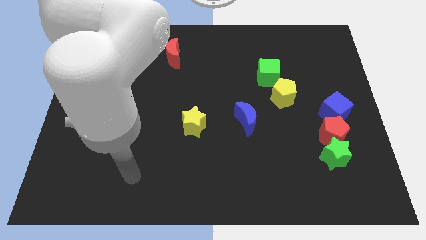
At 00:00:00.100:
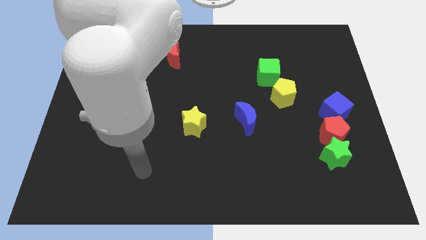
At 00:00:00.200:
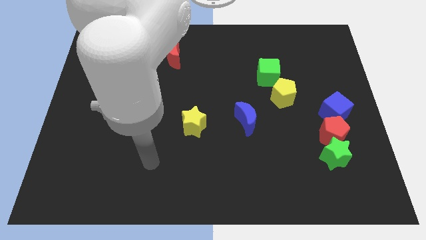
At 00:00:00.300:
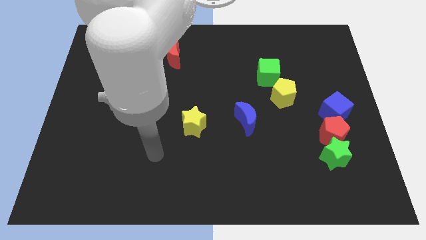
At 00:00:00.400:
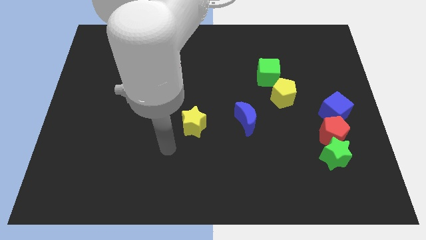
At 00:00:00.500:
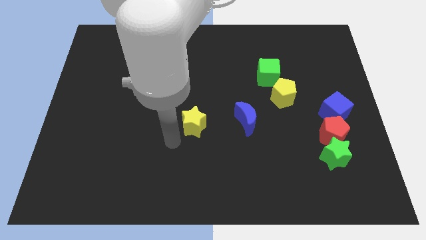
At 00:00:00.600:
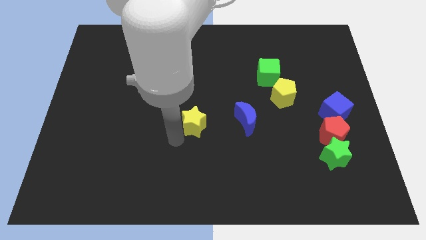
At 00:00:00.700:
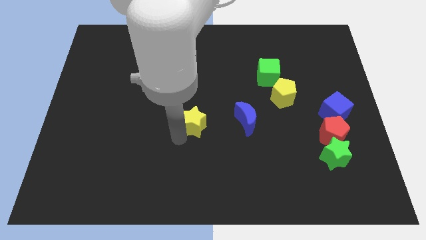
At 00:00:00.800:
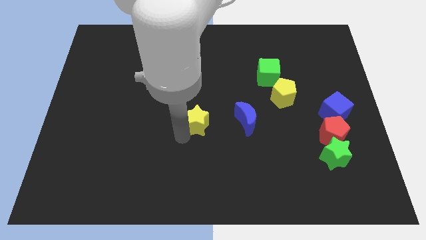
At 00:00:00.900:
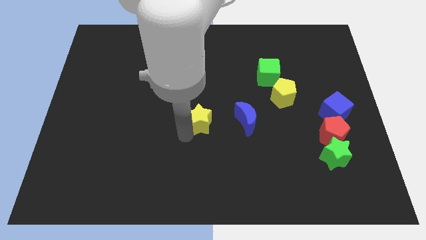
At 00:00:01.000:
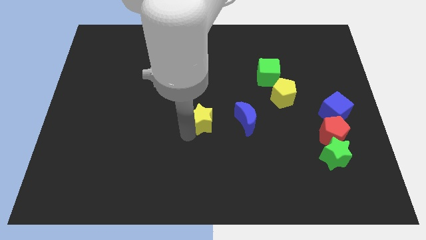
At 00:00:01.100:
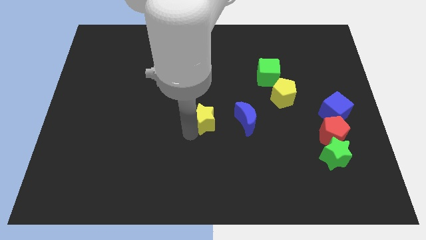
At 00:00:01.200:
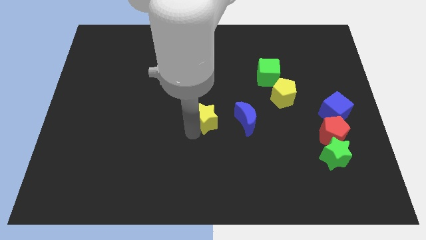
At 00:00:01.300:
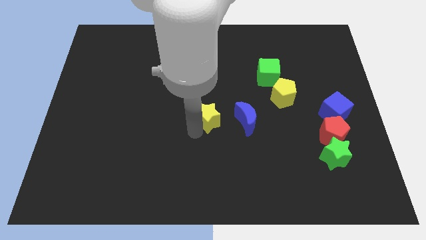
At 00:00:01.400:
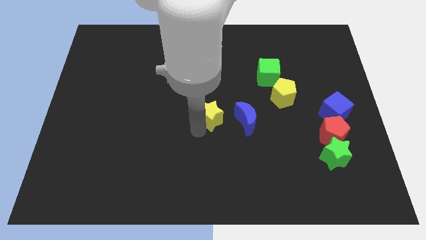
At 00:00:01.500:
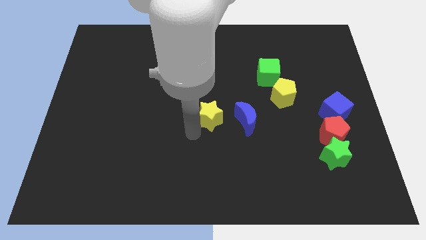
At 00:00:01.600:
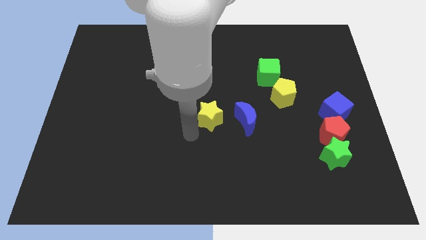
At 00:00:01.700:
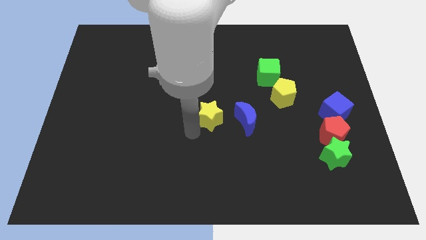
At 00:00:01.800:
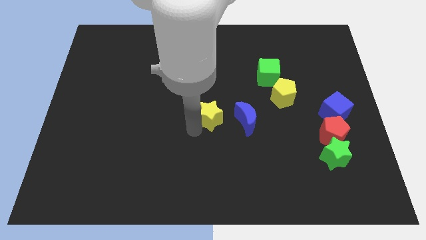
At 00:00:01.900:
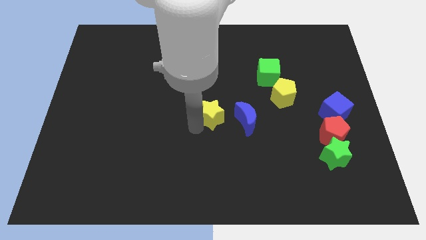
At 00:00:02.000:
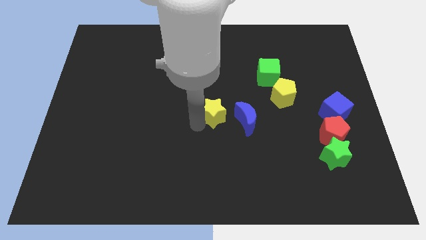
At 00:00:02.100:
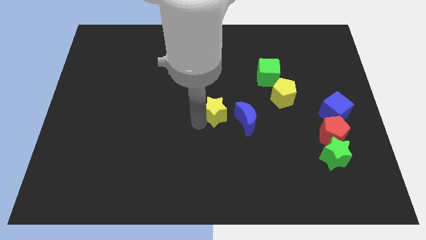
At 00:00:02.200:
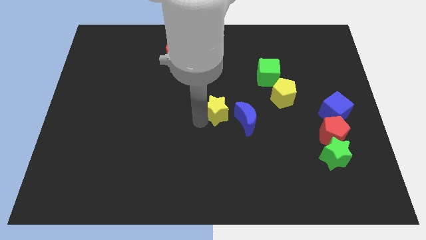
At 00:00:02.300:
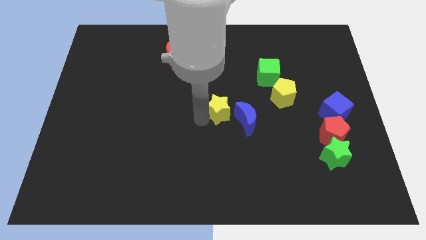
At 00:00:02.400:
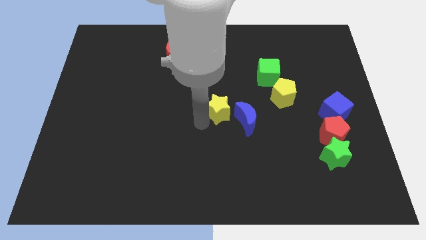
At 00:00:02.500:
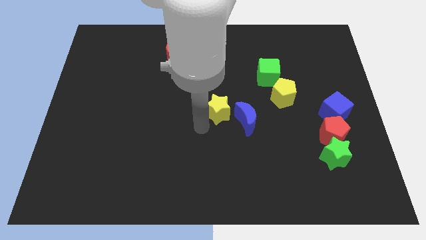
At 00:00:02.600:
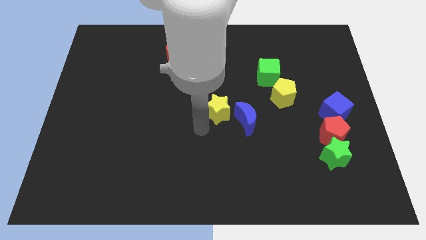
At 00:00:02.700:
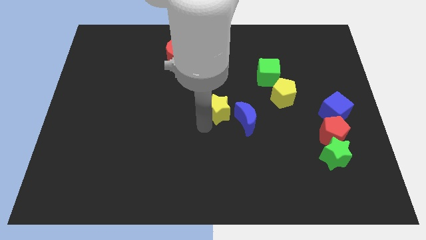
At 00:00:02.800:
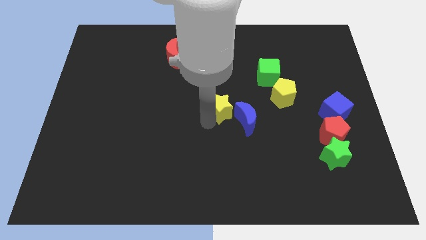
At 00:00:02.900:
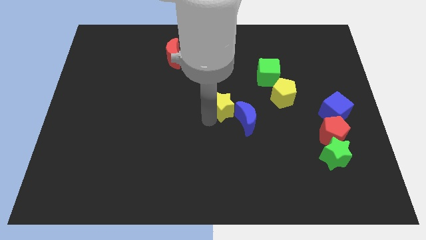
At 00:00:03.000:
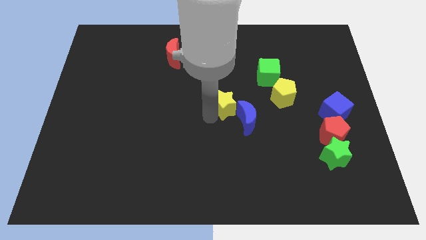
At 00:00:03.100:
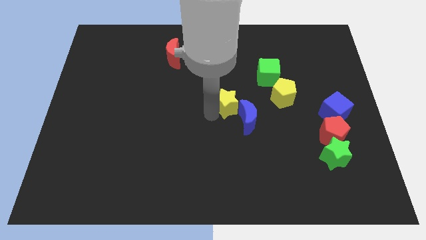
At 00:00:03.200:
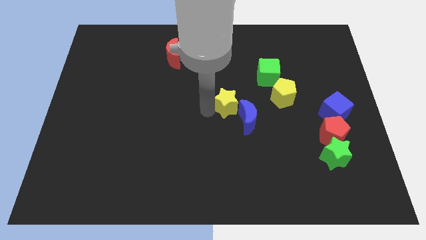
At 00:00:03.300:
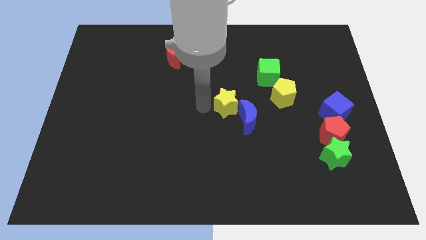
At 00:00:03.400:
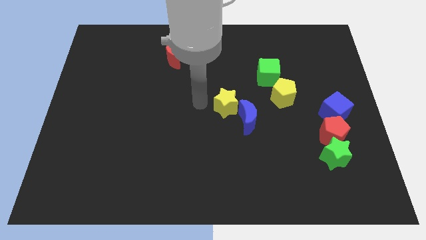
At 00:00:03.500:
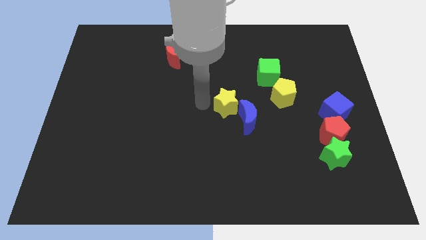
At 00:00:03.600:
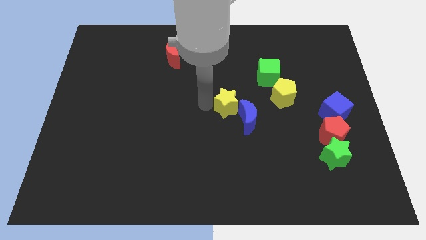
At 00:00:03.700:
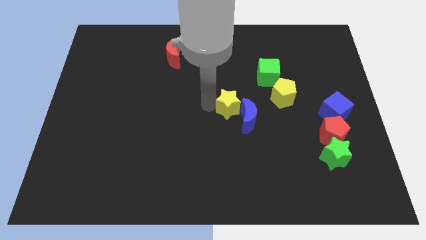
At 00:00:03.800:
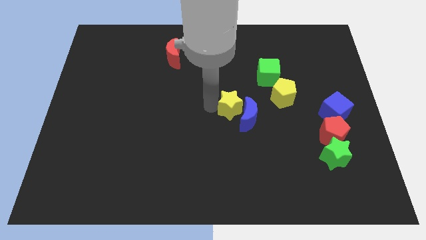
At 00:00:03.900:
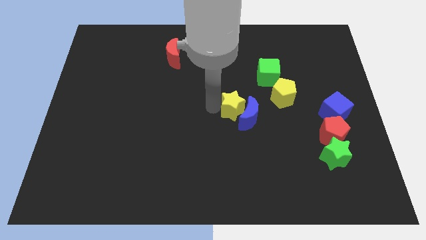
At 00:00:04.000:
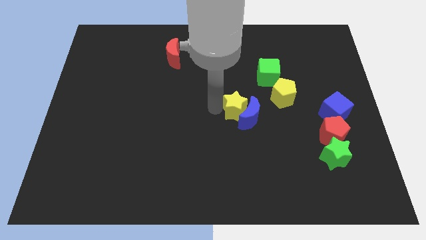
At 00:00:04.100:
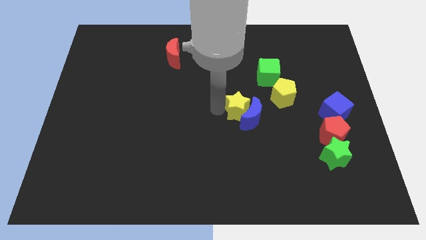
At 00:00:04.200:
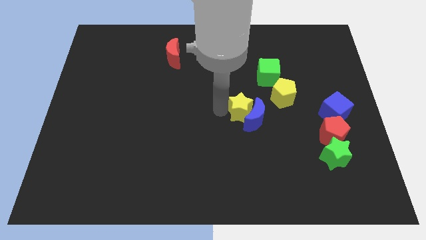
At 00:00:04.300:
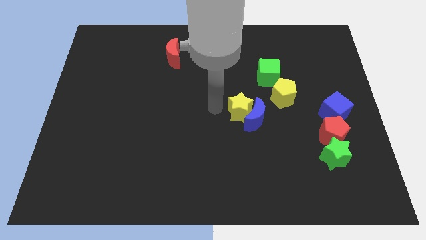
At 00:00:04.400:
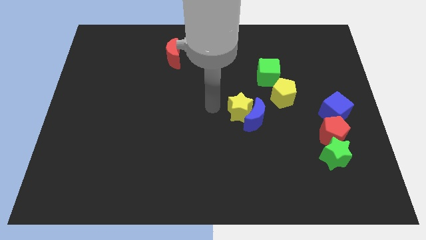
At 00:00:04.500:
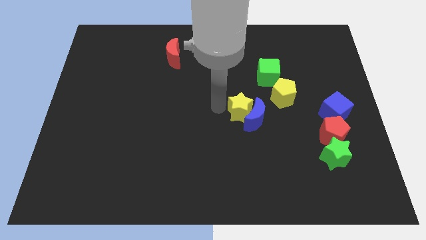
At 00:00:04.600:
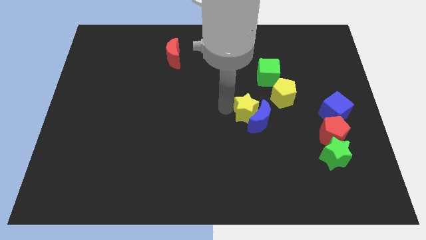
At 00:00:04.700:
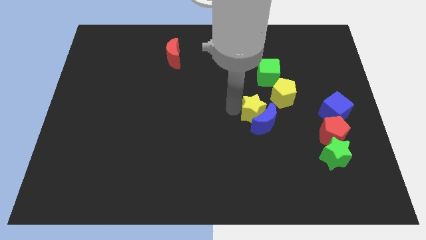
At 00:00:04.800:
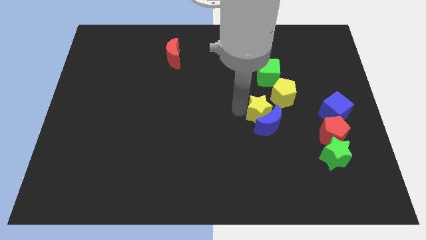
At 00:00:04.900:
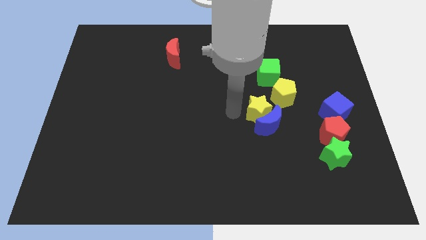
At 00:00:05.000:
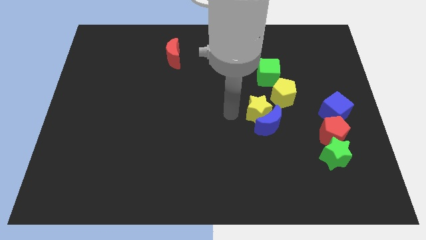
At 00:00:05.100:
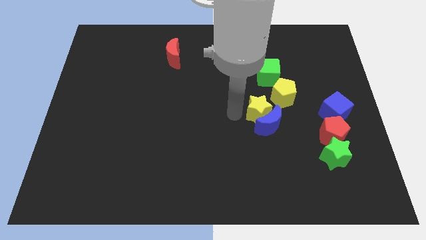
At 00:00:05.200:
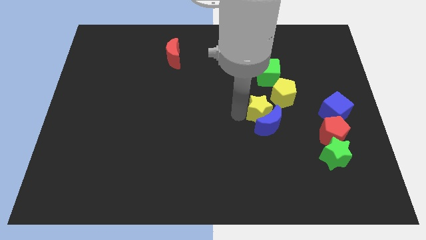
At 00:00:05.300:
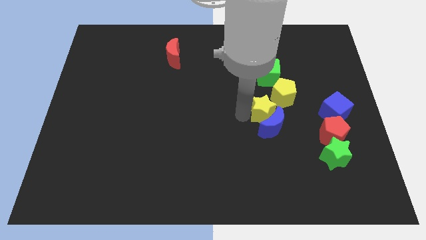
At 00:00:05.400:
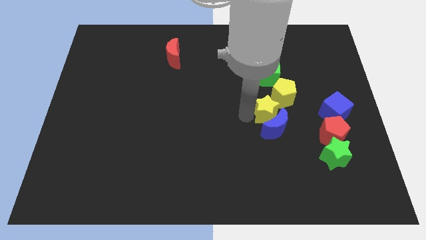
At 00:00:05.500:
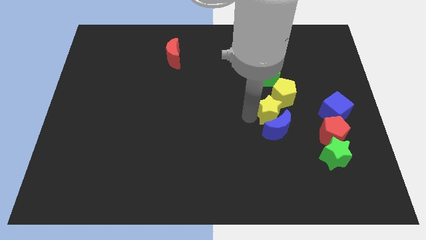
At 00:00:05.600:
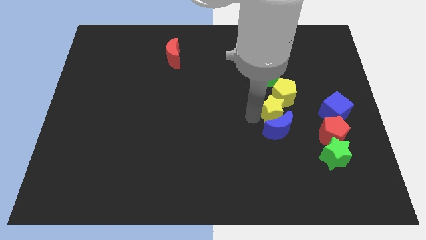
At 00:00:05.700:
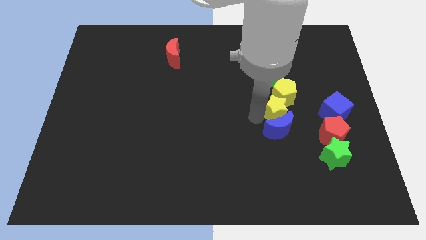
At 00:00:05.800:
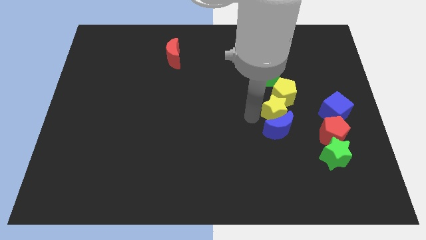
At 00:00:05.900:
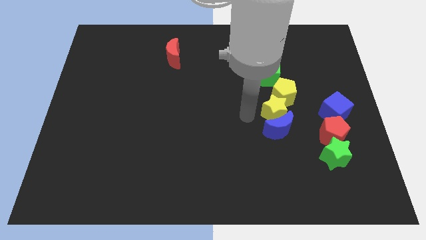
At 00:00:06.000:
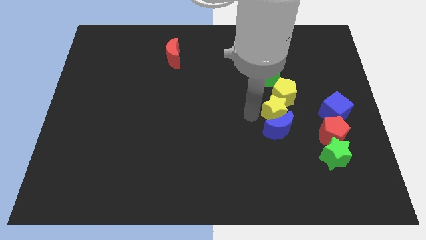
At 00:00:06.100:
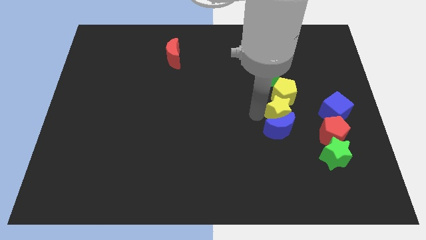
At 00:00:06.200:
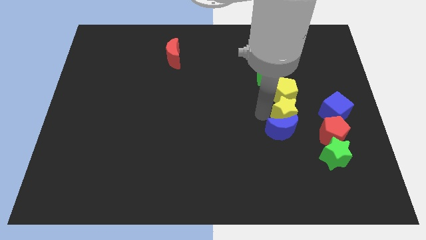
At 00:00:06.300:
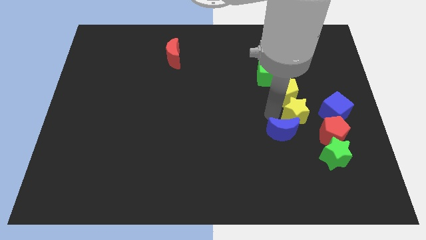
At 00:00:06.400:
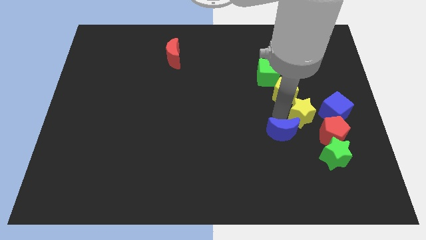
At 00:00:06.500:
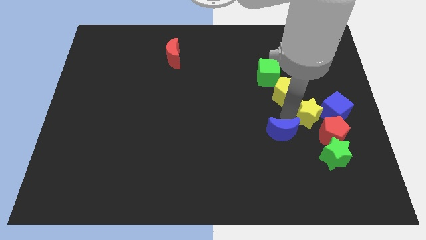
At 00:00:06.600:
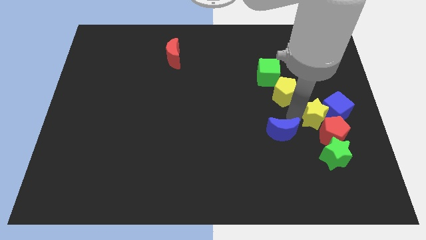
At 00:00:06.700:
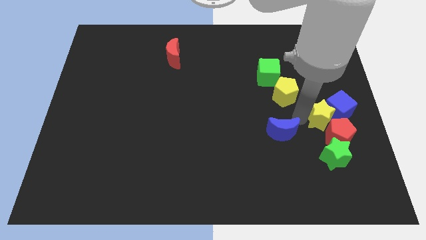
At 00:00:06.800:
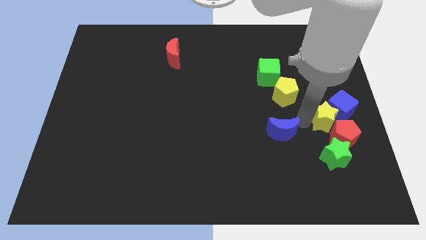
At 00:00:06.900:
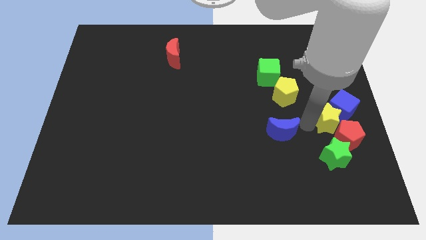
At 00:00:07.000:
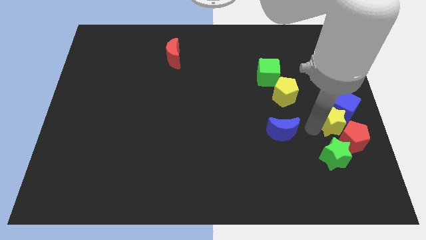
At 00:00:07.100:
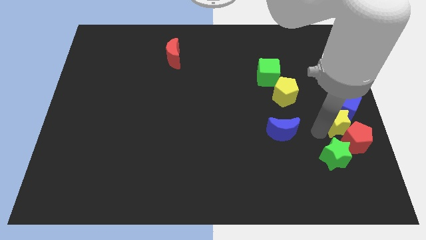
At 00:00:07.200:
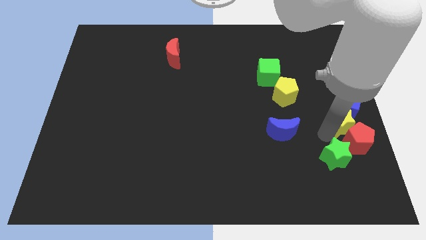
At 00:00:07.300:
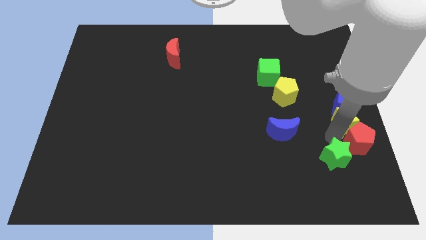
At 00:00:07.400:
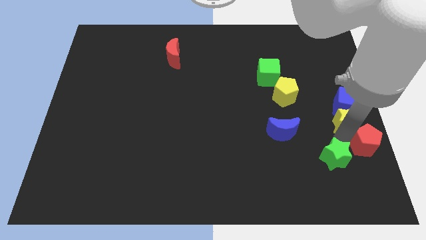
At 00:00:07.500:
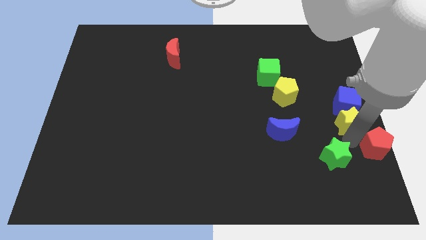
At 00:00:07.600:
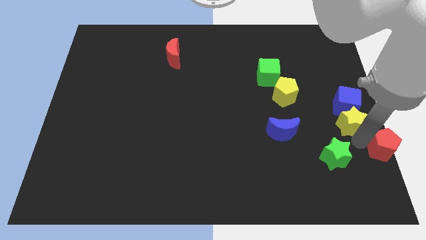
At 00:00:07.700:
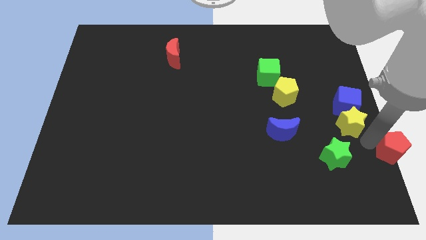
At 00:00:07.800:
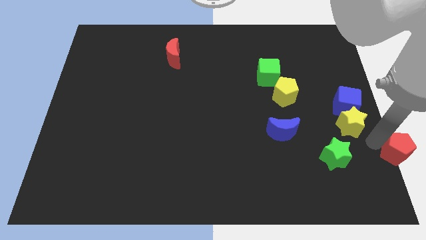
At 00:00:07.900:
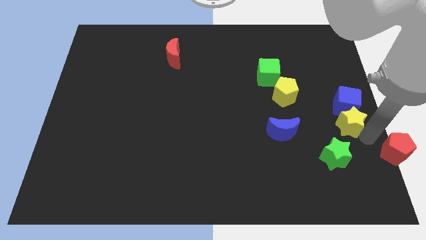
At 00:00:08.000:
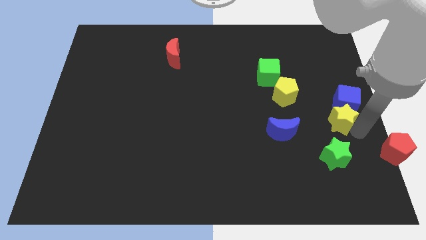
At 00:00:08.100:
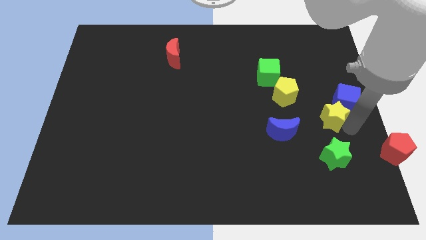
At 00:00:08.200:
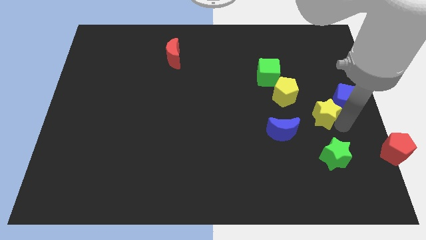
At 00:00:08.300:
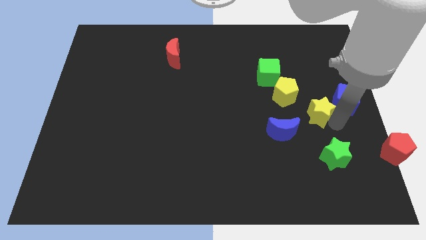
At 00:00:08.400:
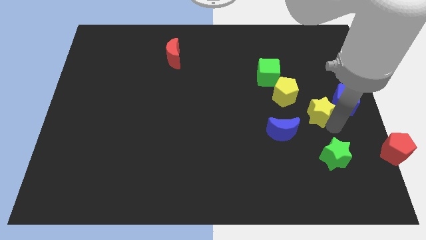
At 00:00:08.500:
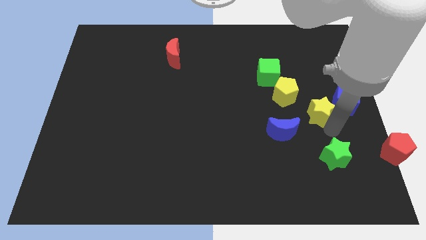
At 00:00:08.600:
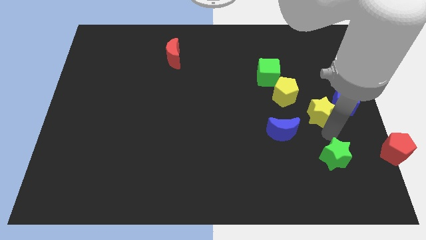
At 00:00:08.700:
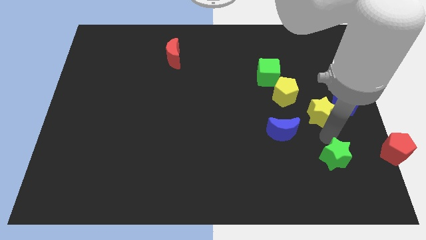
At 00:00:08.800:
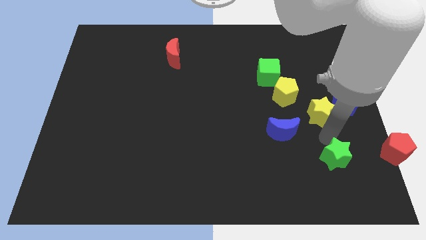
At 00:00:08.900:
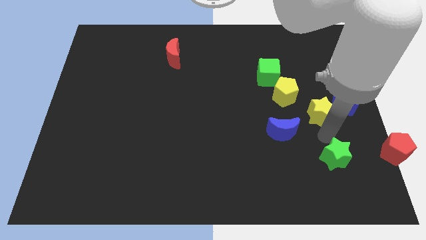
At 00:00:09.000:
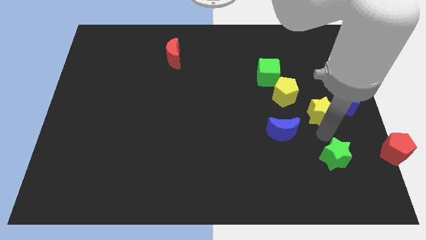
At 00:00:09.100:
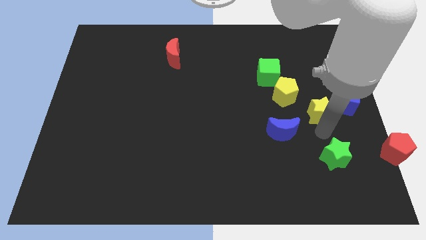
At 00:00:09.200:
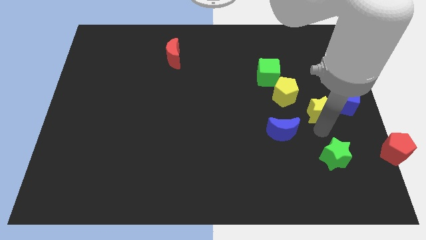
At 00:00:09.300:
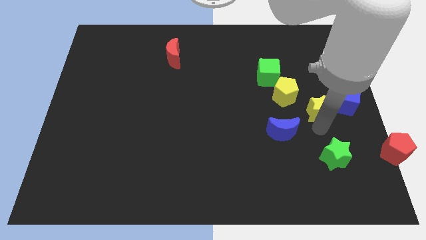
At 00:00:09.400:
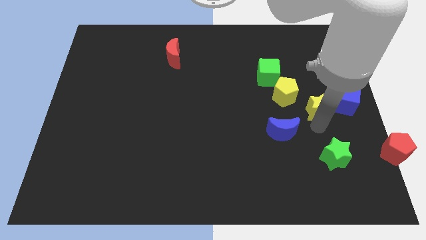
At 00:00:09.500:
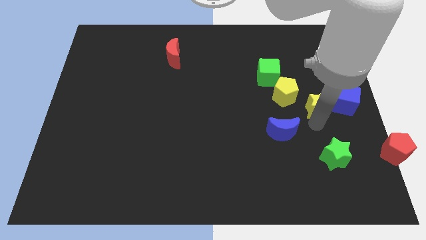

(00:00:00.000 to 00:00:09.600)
move the yellow star to the right side of the yellow pentagon
